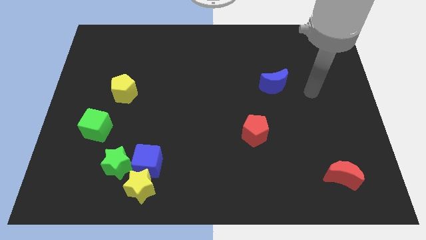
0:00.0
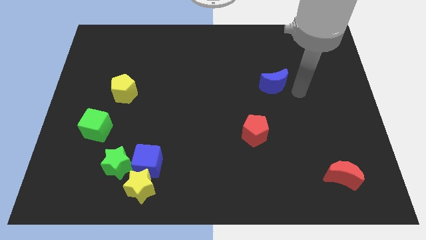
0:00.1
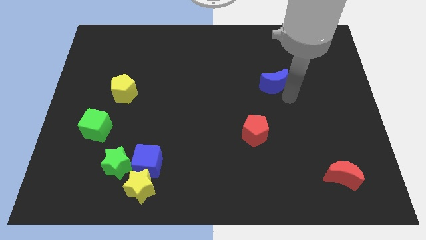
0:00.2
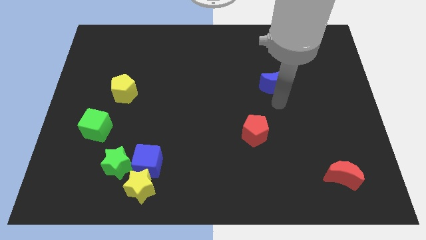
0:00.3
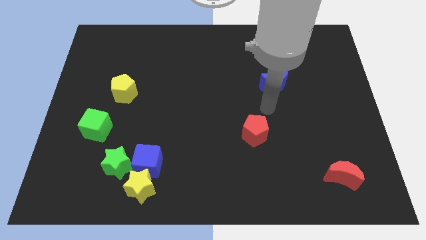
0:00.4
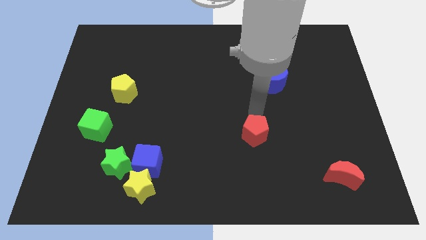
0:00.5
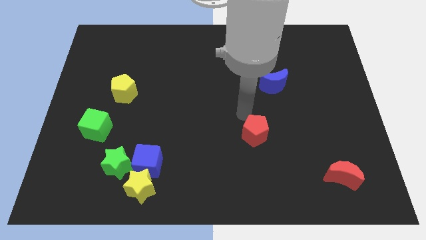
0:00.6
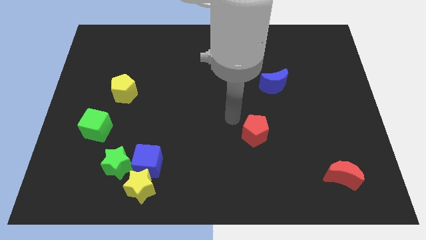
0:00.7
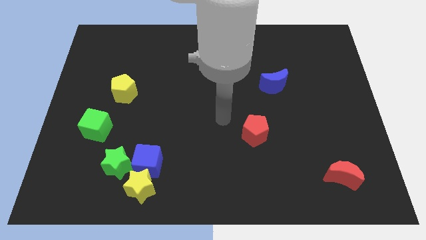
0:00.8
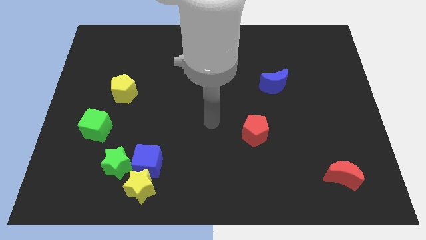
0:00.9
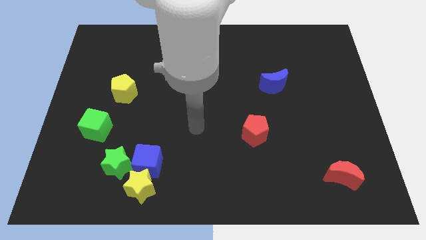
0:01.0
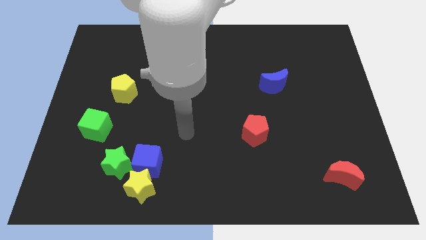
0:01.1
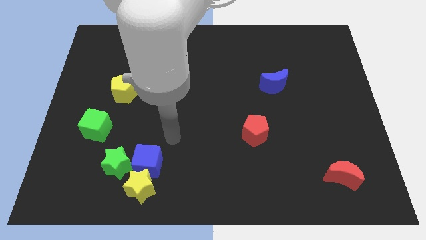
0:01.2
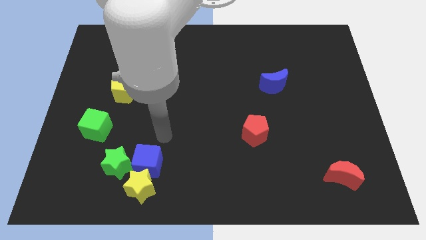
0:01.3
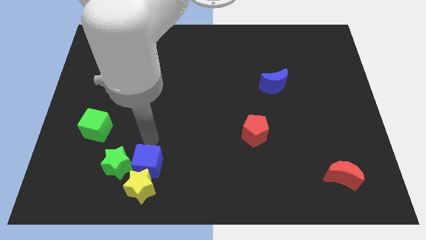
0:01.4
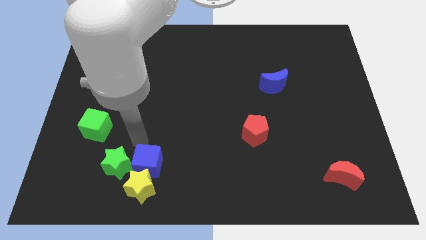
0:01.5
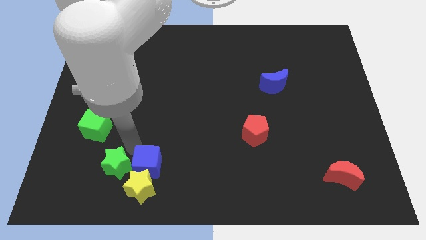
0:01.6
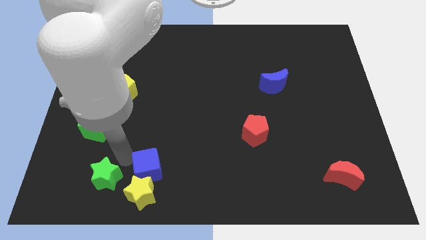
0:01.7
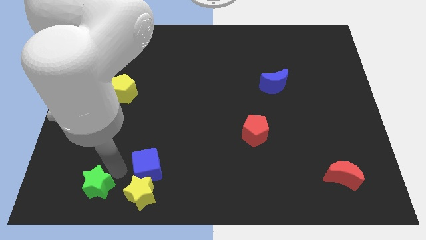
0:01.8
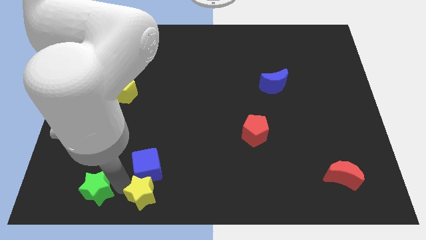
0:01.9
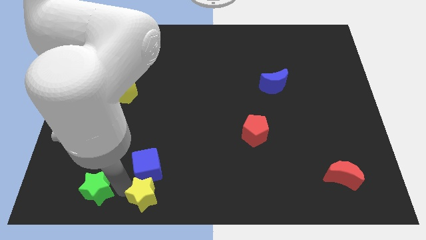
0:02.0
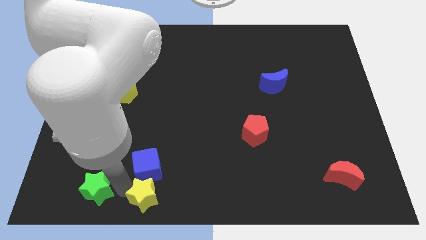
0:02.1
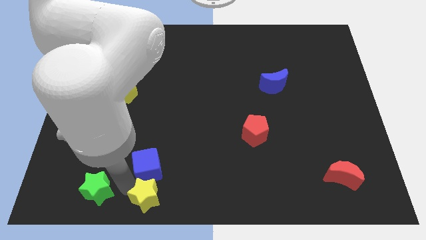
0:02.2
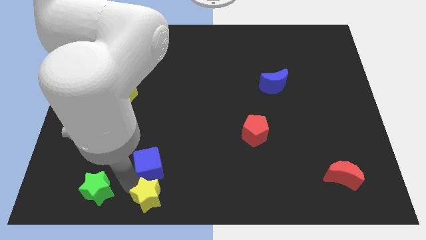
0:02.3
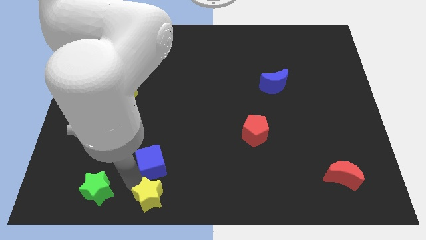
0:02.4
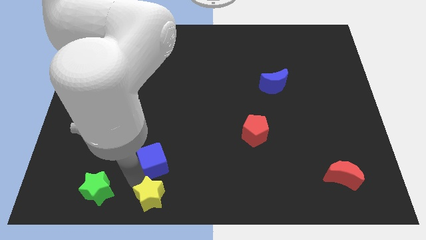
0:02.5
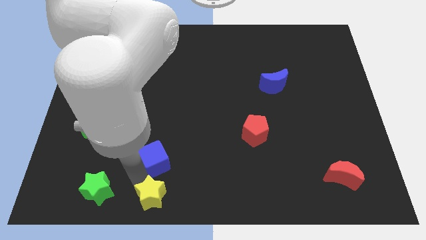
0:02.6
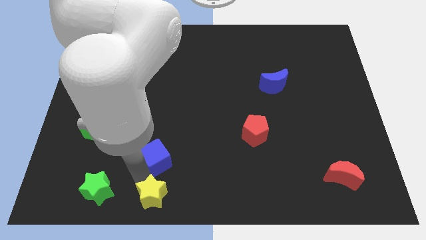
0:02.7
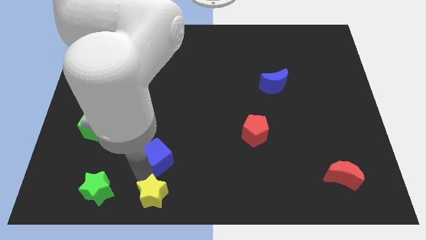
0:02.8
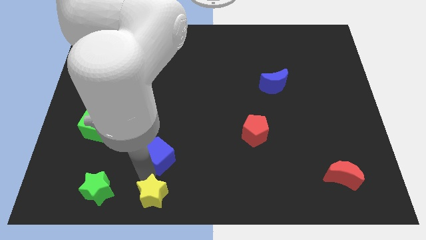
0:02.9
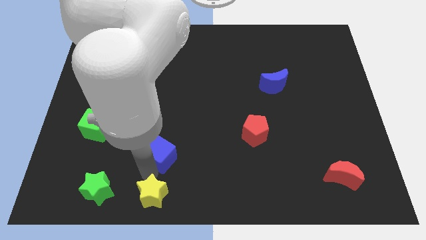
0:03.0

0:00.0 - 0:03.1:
separate the blue cube from the yellow star and green star

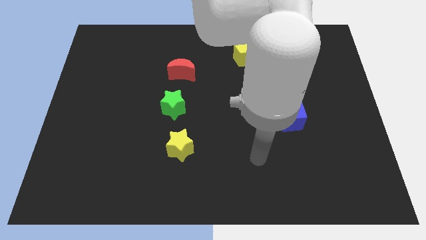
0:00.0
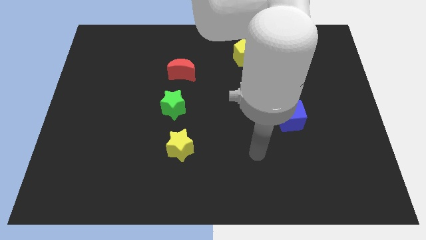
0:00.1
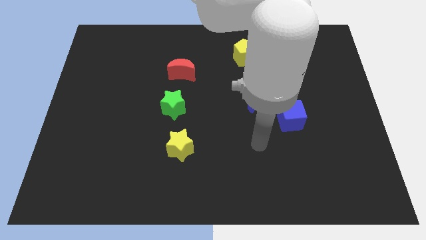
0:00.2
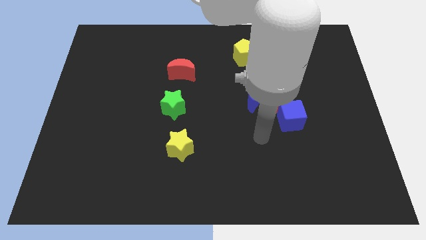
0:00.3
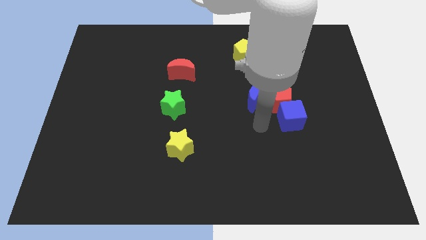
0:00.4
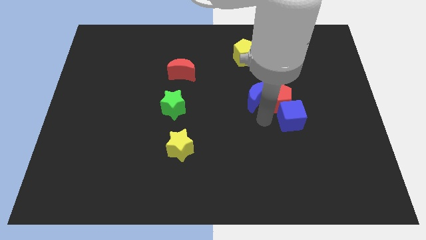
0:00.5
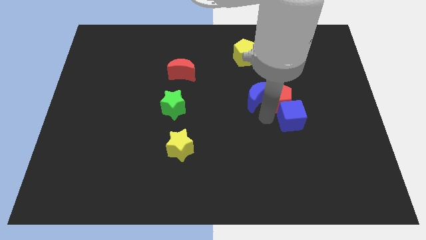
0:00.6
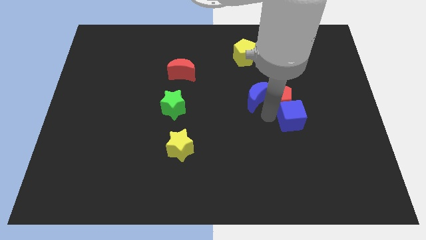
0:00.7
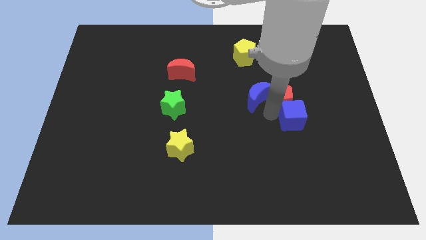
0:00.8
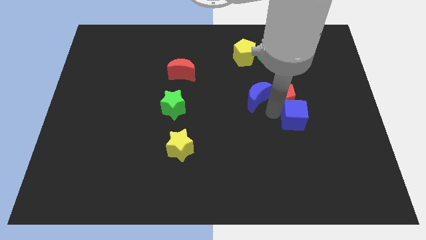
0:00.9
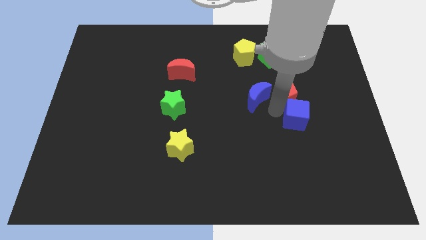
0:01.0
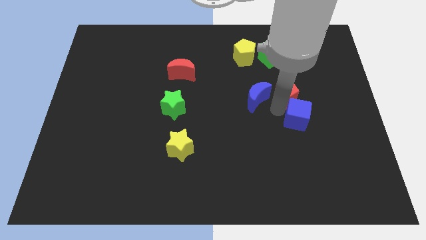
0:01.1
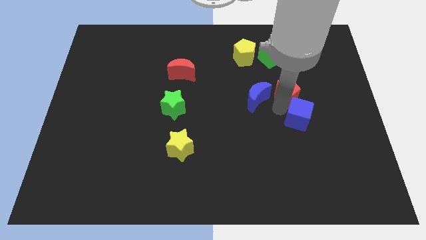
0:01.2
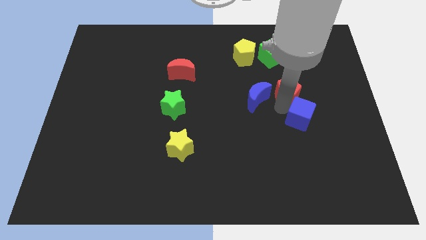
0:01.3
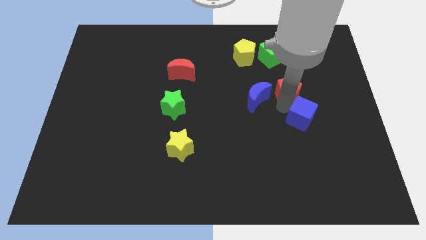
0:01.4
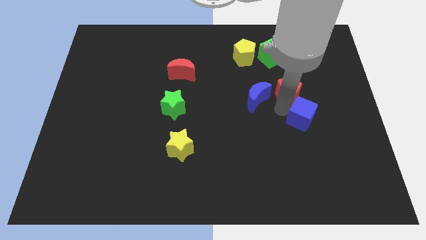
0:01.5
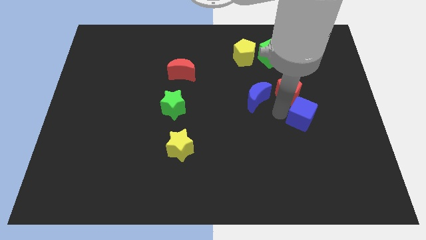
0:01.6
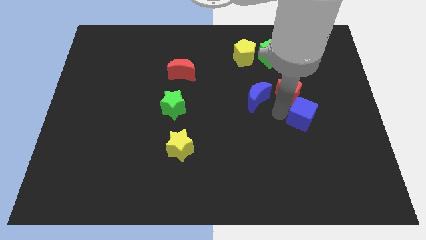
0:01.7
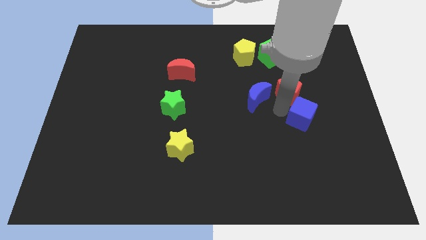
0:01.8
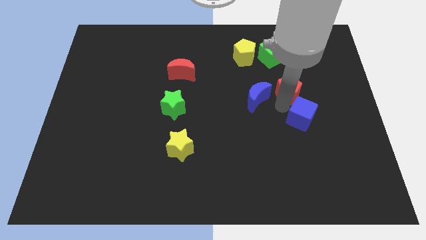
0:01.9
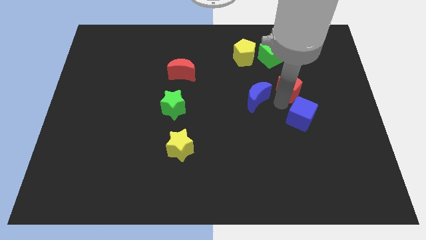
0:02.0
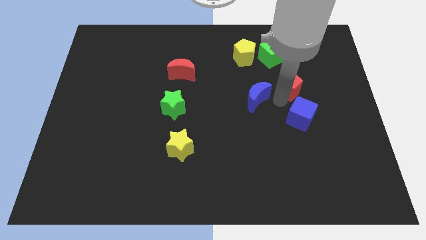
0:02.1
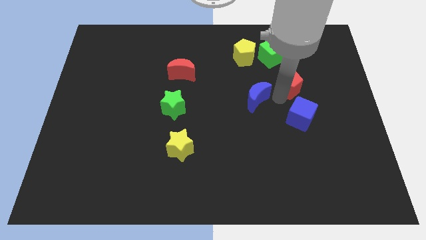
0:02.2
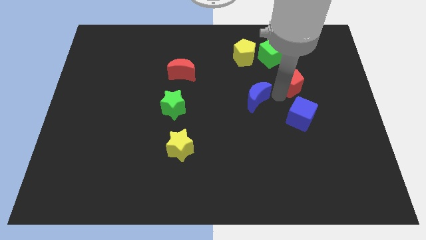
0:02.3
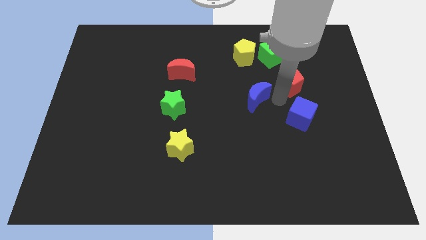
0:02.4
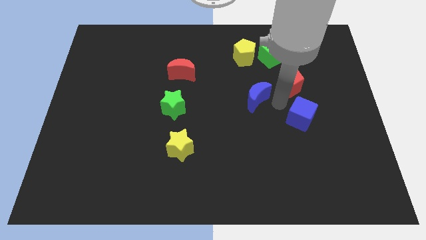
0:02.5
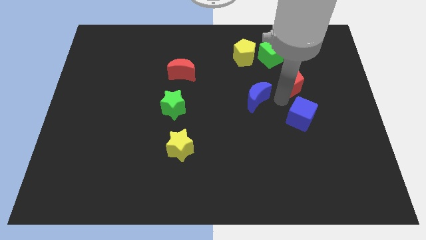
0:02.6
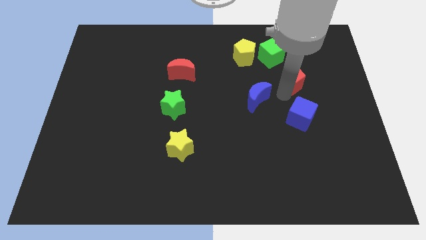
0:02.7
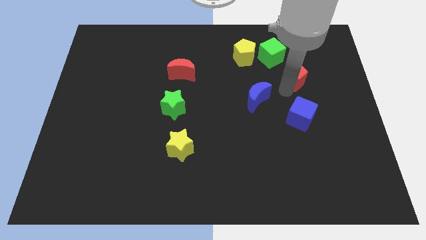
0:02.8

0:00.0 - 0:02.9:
separate the red pentagon from the blue moon and blue cube

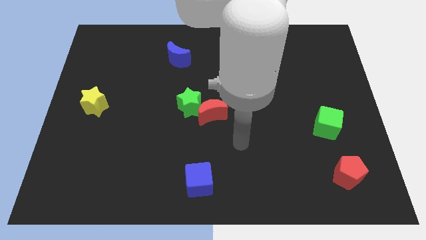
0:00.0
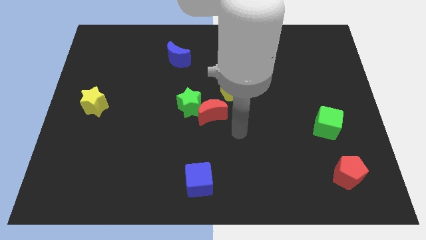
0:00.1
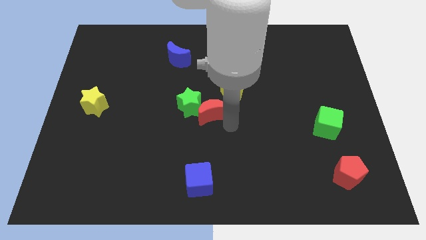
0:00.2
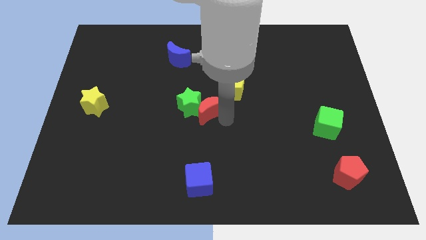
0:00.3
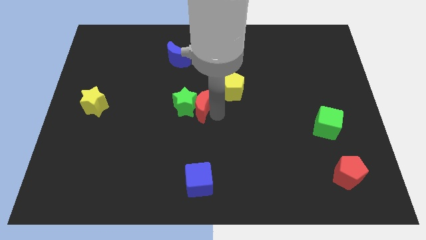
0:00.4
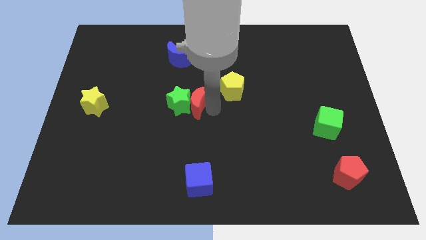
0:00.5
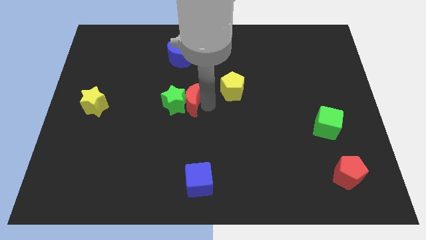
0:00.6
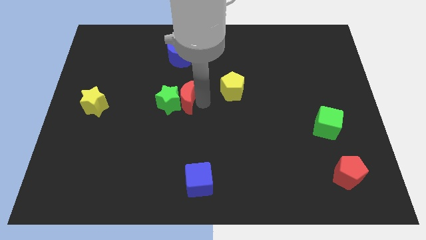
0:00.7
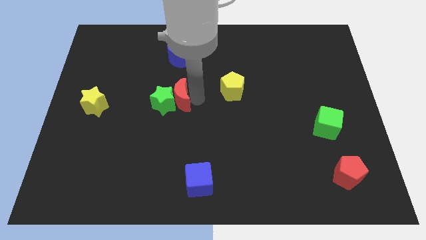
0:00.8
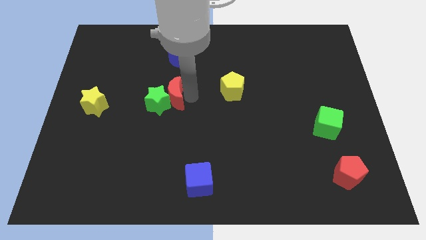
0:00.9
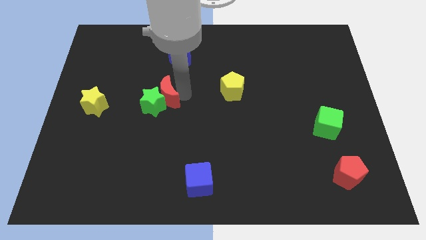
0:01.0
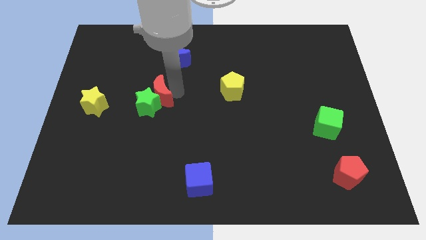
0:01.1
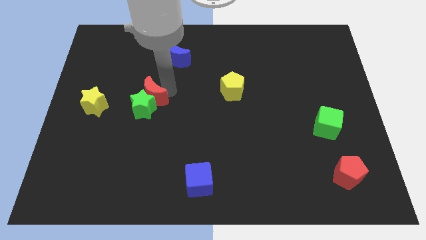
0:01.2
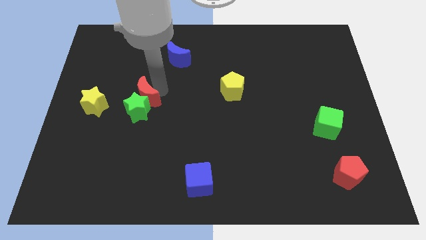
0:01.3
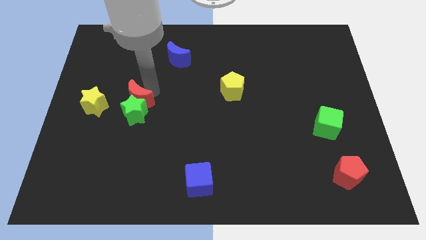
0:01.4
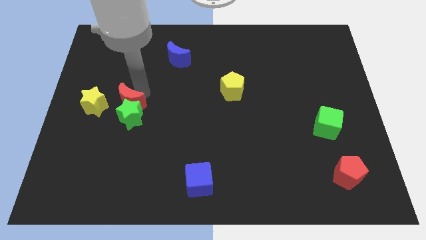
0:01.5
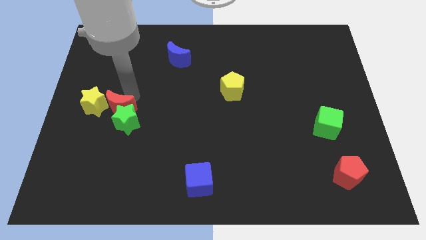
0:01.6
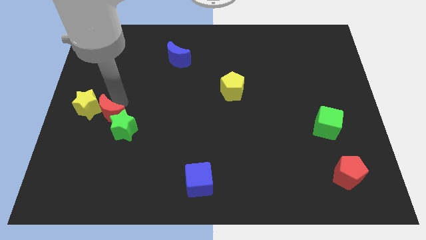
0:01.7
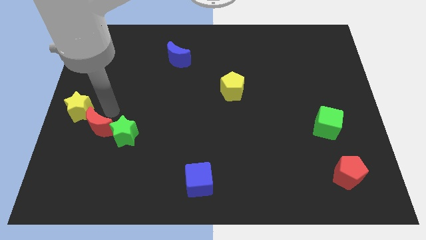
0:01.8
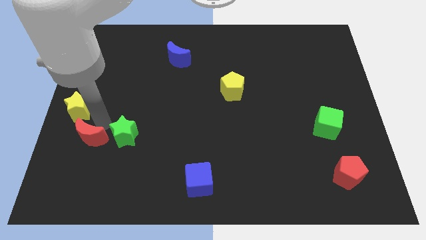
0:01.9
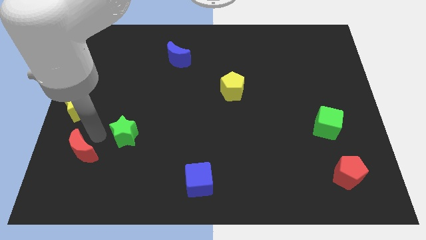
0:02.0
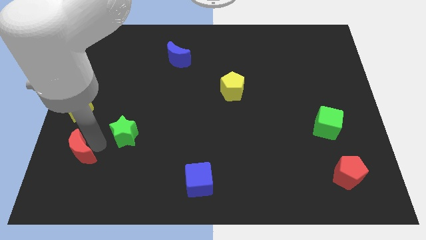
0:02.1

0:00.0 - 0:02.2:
separate the green star from the red moon

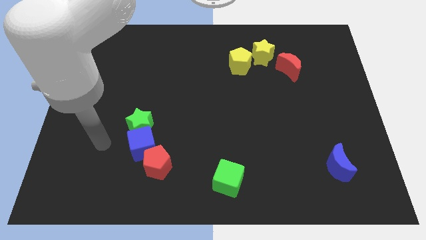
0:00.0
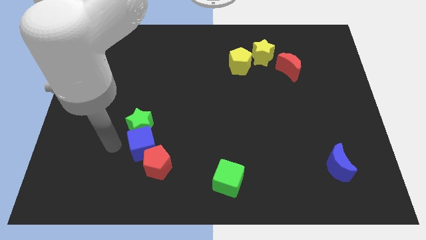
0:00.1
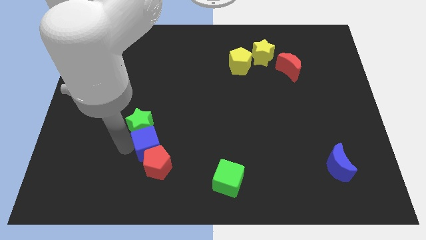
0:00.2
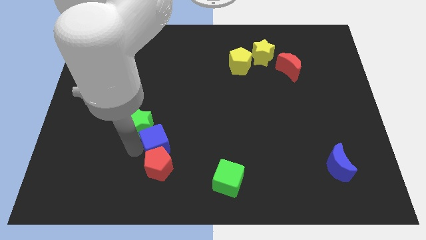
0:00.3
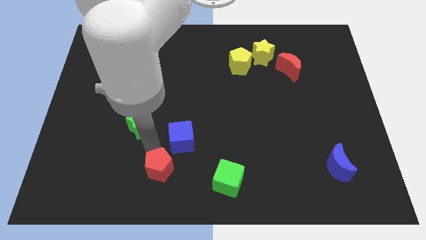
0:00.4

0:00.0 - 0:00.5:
move the green star away from the blue cube

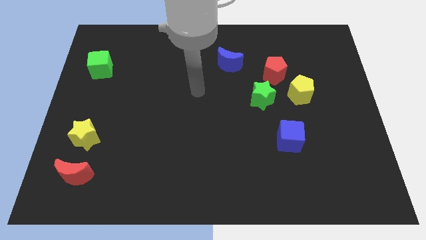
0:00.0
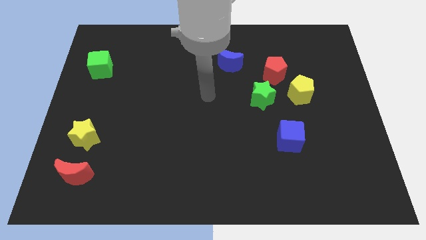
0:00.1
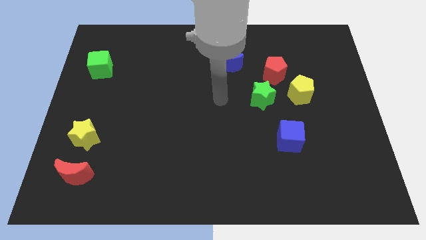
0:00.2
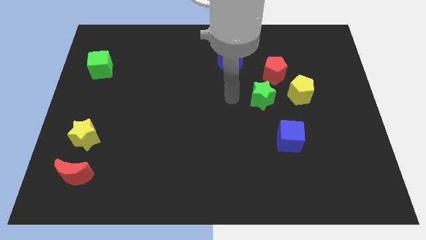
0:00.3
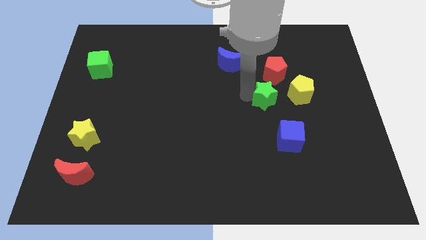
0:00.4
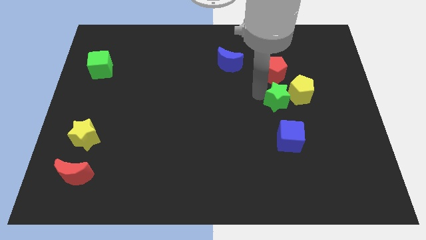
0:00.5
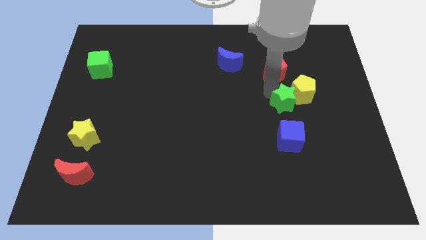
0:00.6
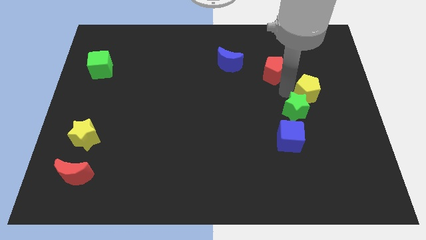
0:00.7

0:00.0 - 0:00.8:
move the red pentagon away from the yellow pentagon and green star
